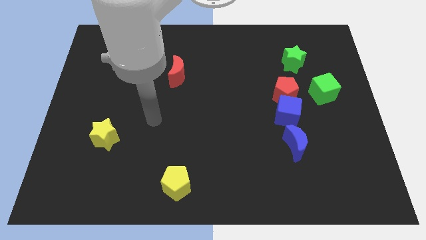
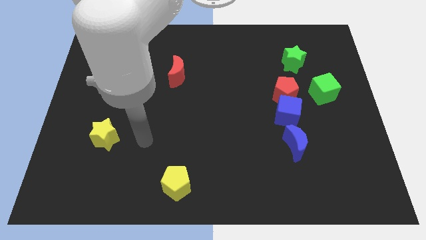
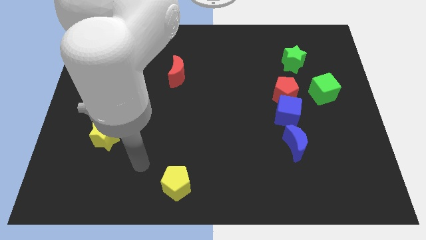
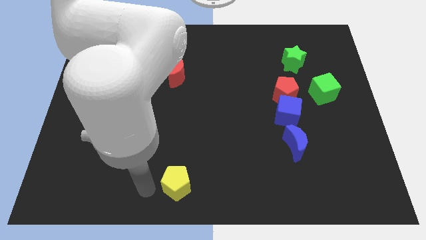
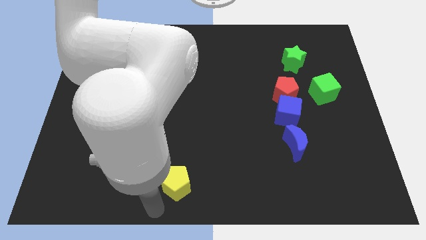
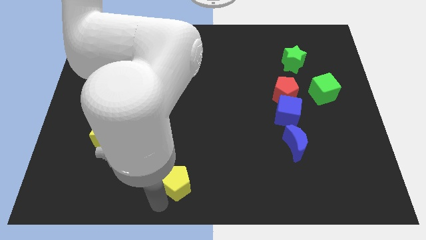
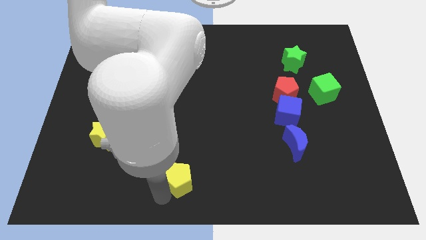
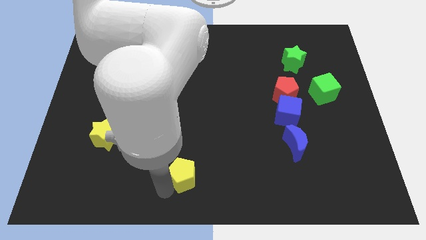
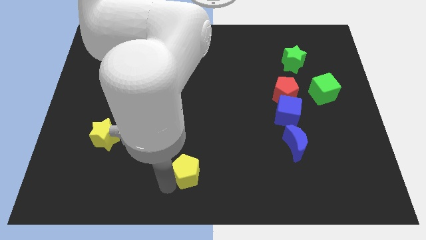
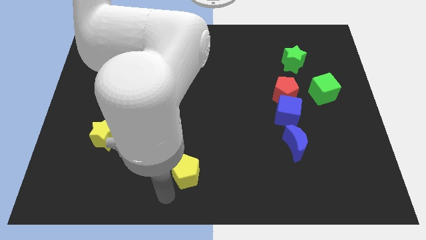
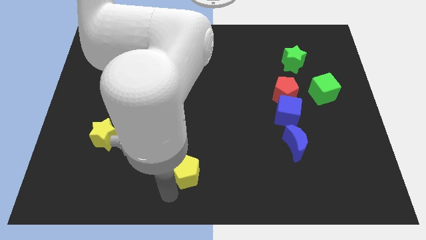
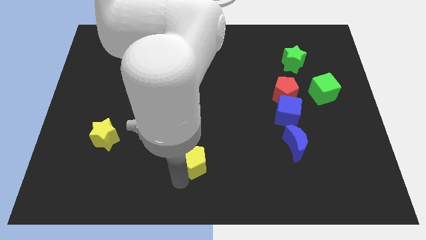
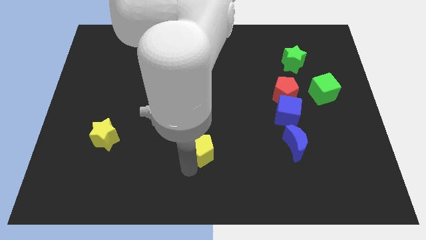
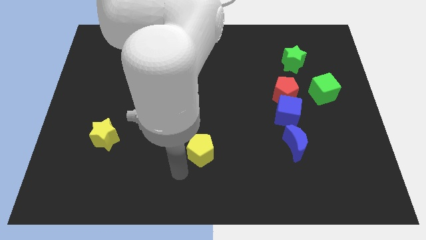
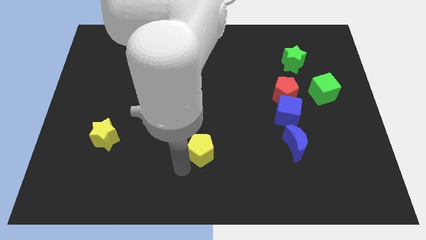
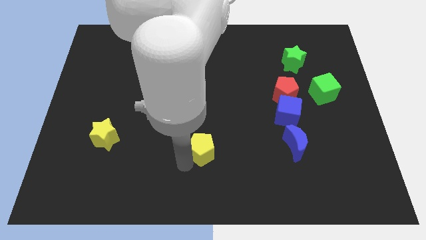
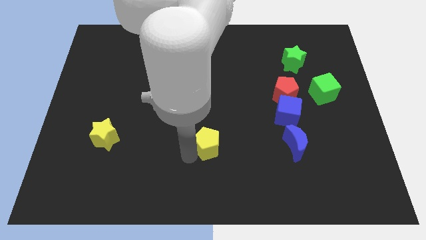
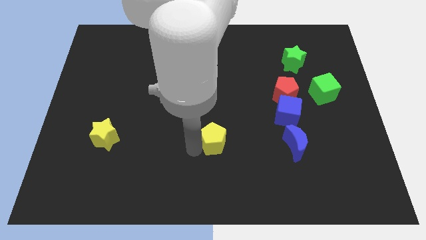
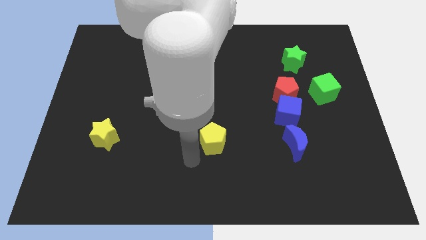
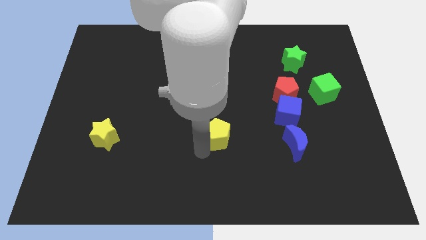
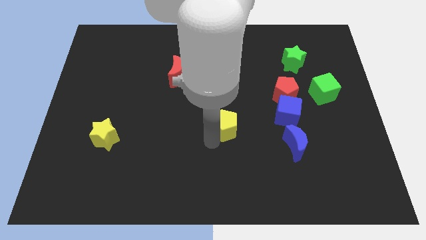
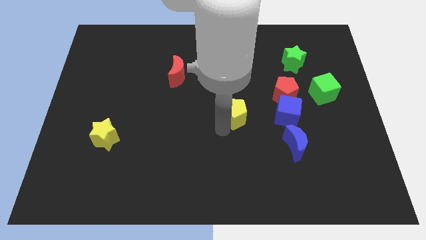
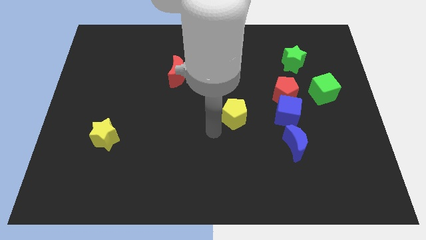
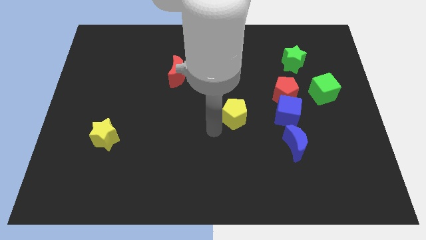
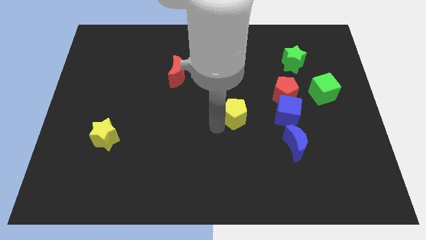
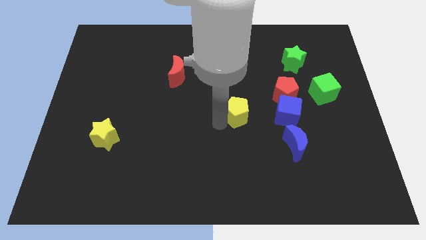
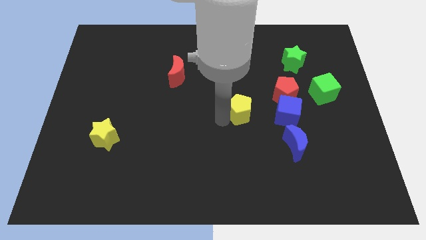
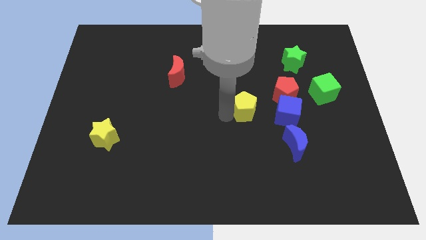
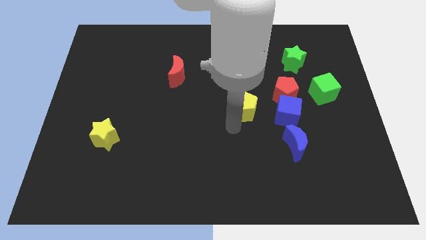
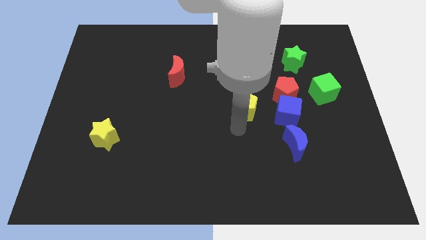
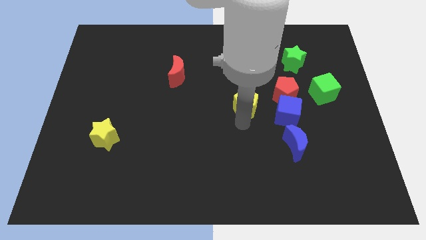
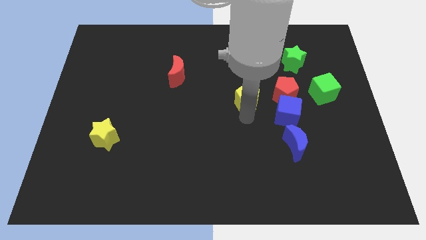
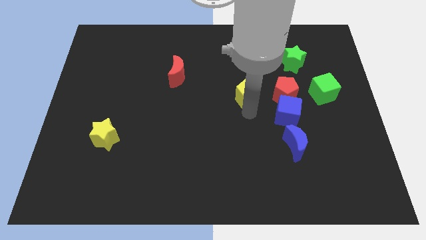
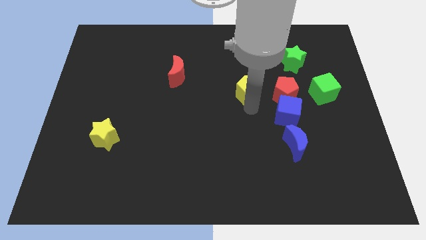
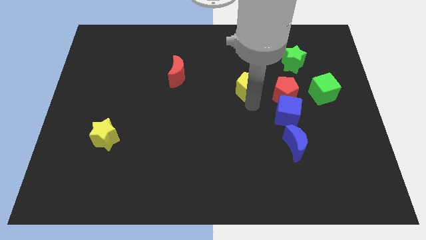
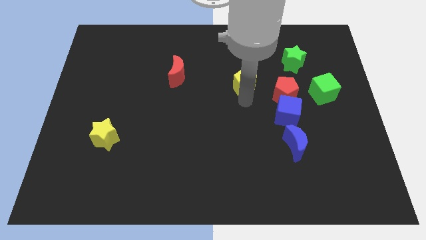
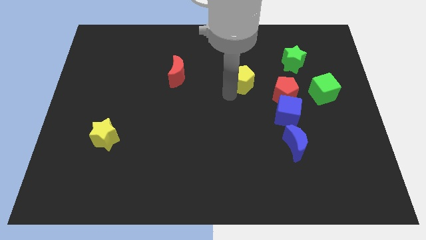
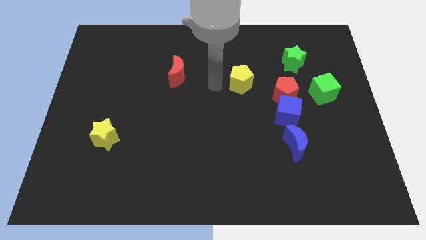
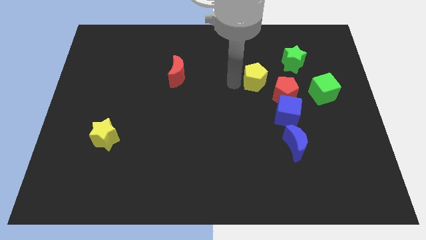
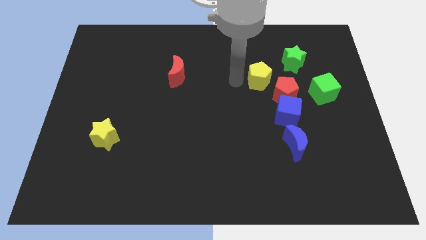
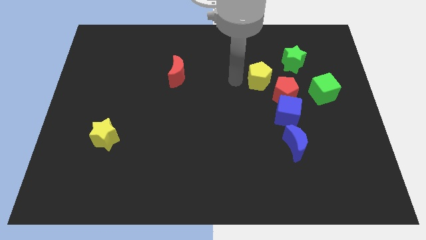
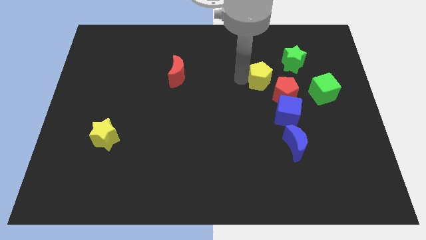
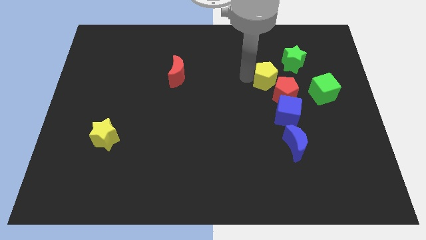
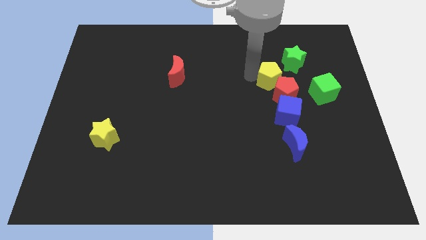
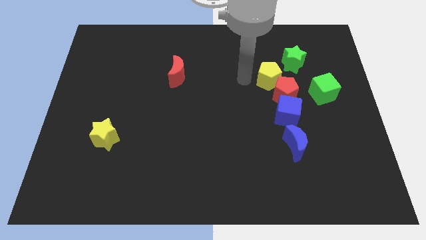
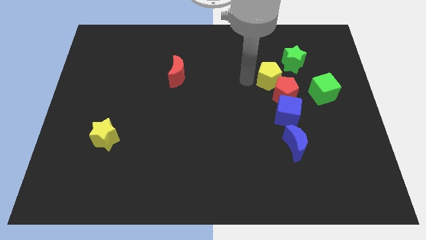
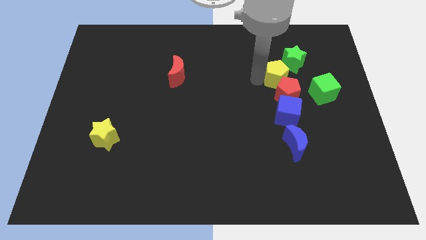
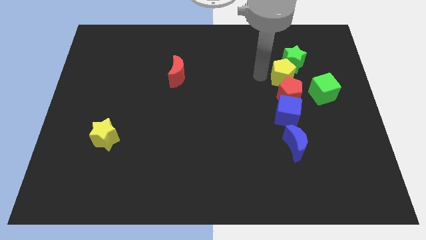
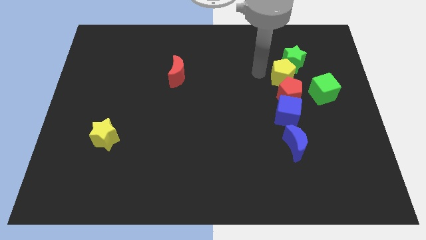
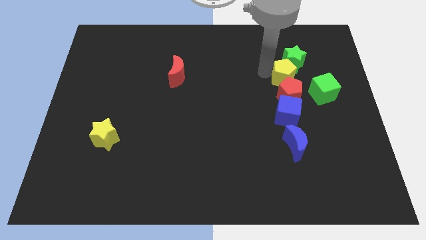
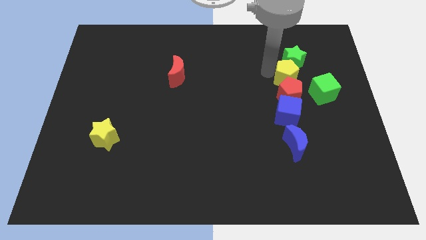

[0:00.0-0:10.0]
put the yellow pentagon to the top right side of the red pentagon

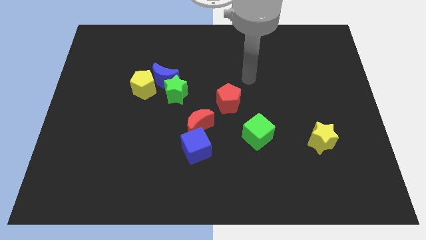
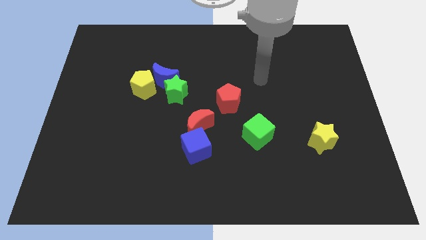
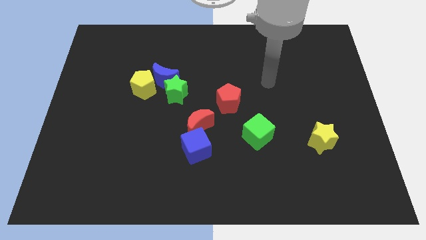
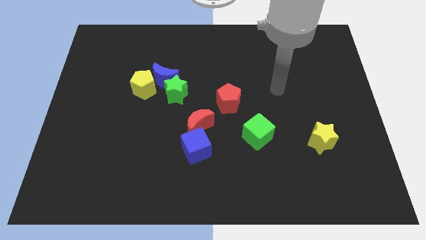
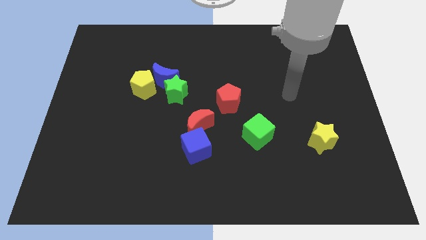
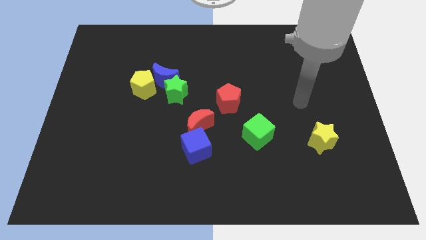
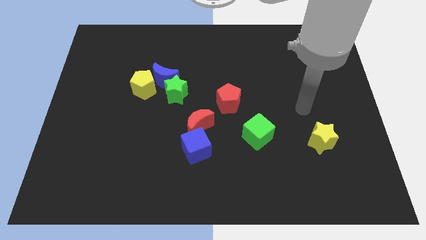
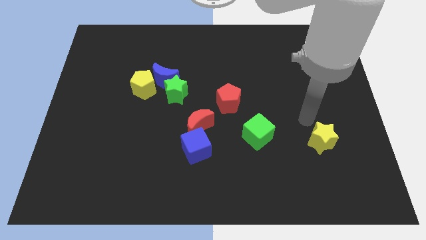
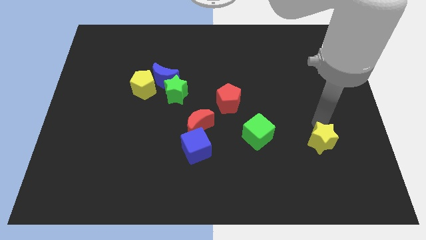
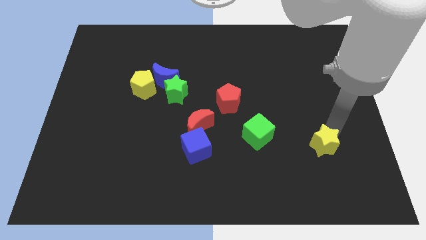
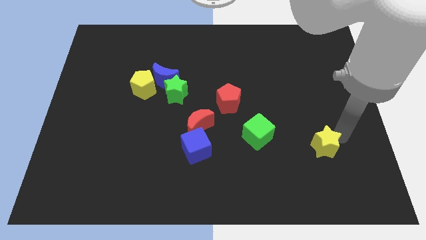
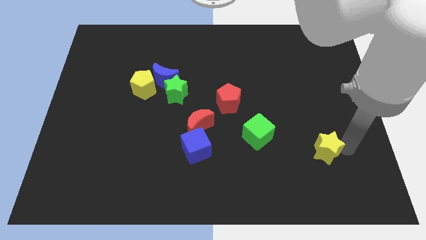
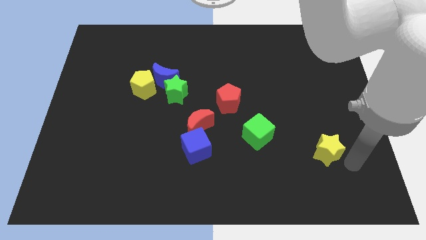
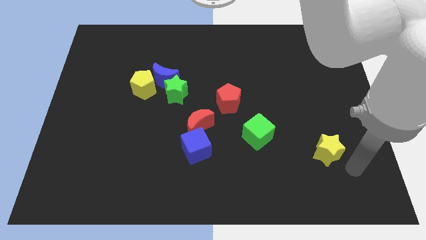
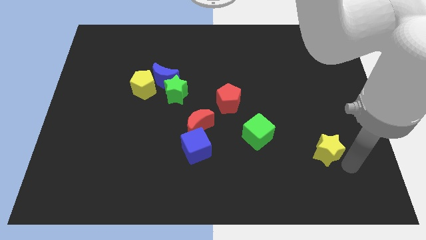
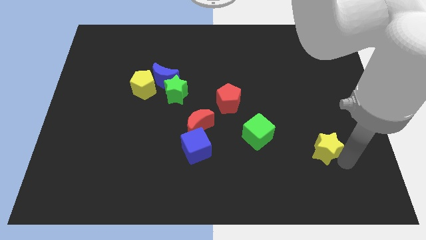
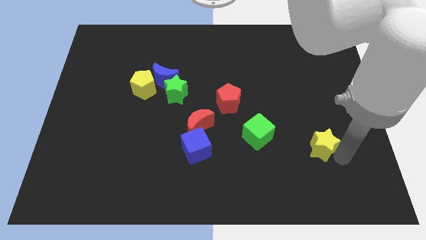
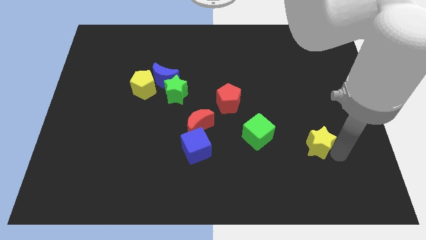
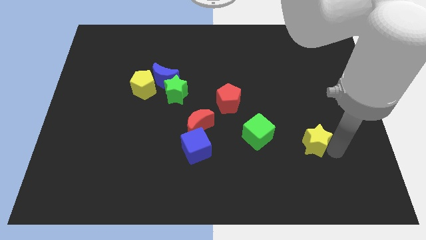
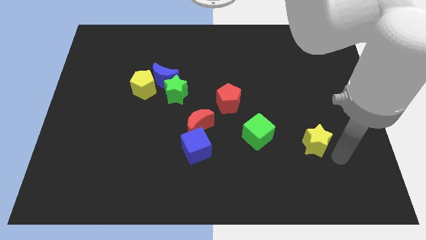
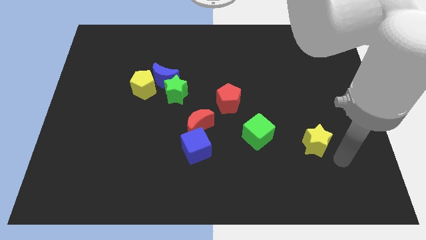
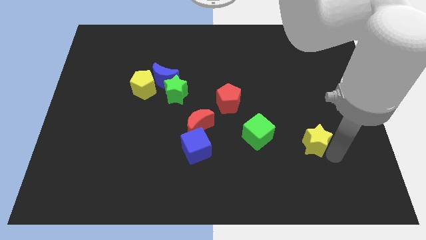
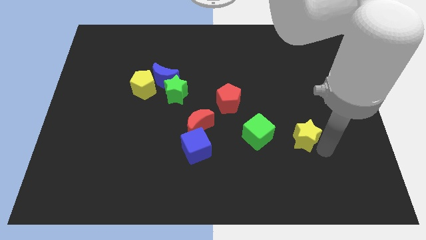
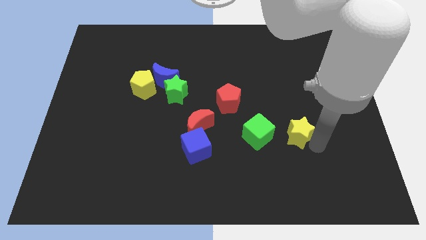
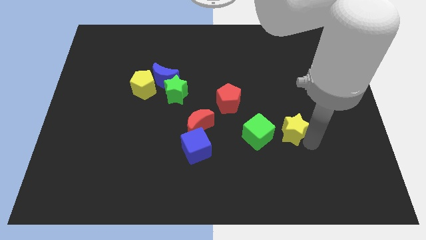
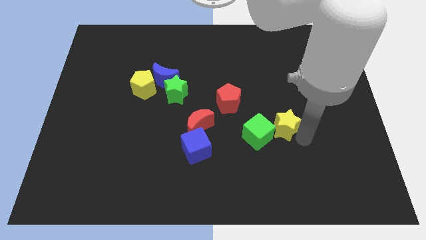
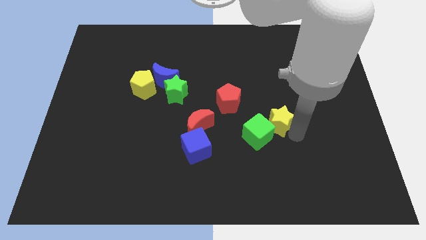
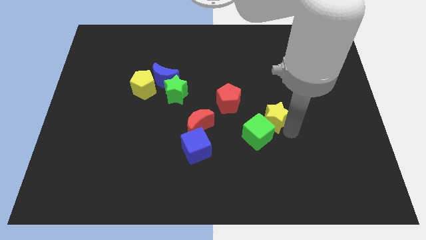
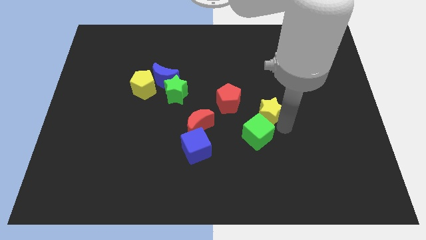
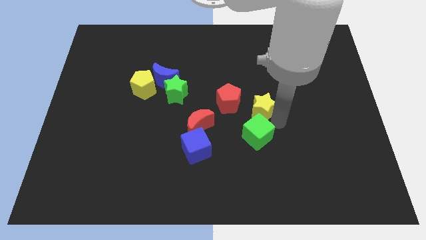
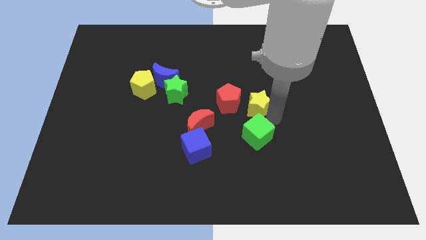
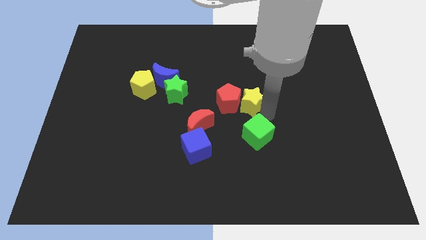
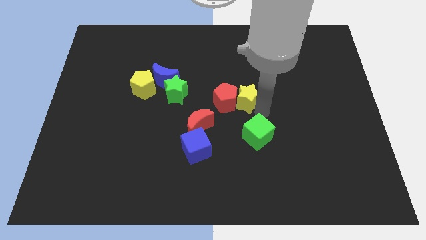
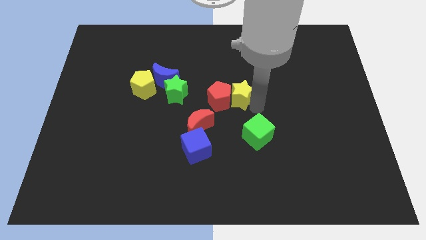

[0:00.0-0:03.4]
push the yellow star to the right side of the green star

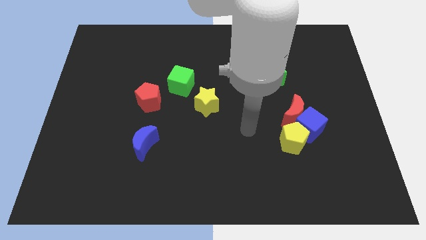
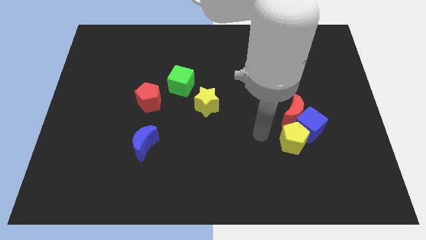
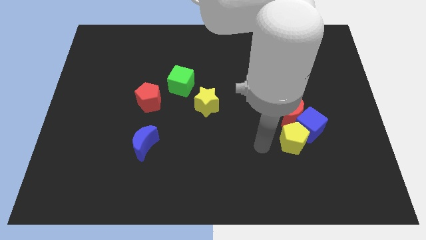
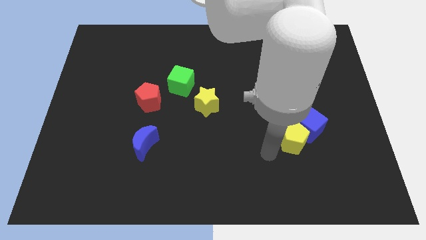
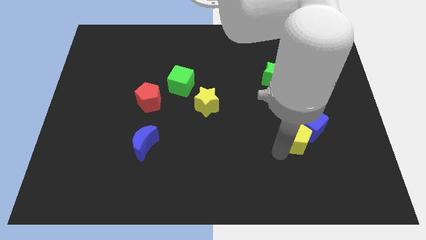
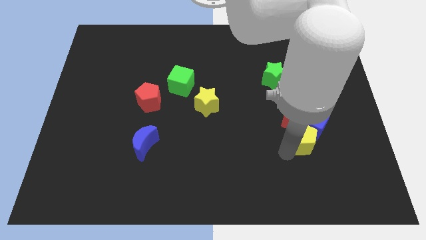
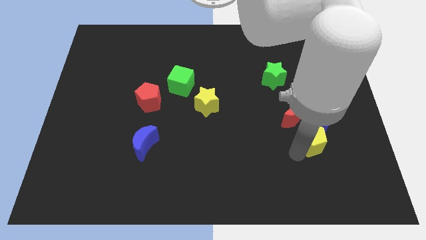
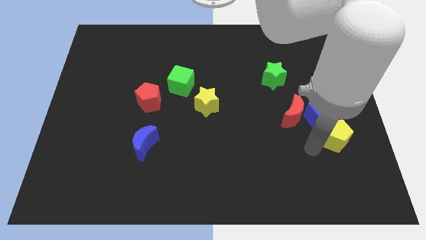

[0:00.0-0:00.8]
move the blue cube diagonally up and to the right of the red moon
